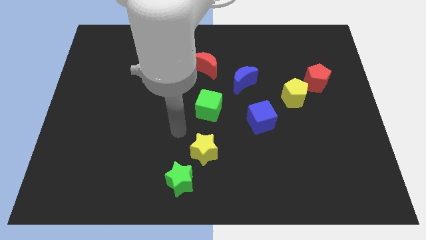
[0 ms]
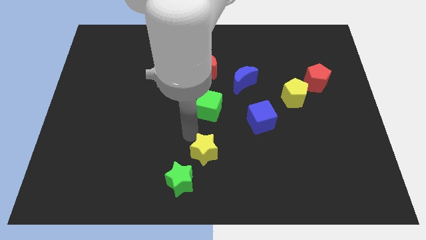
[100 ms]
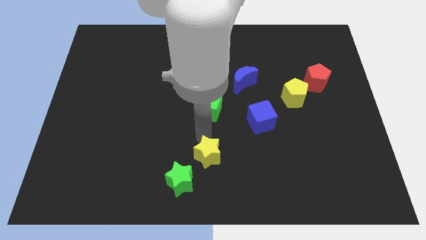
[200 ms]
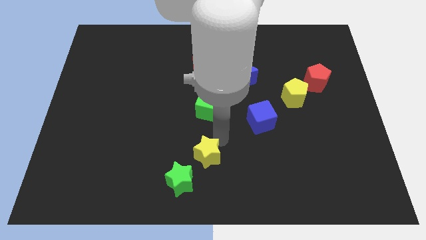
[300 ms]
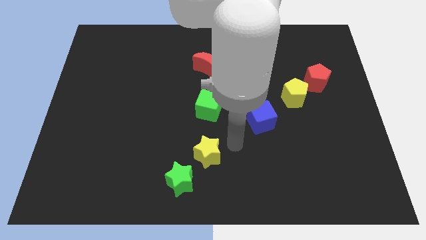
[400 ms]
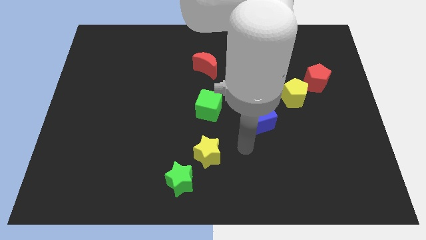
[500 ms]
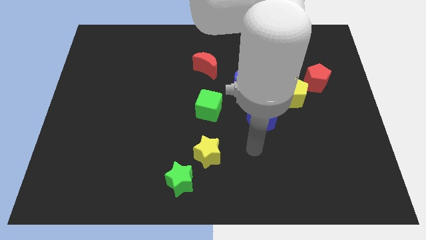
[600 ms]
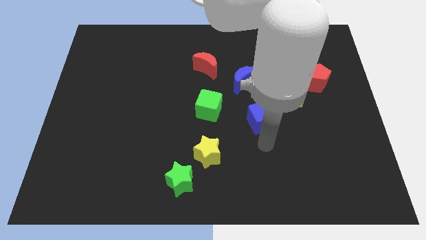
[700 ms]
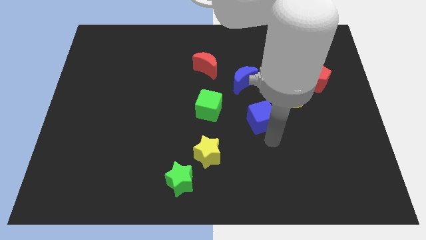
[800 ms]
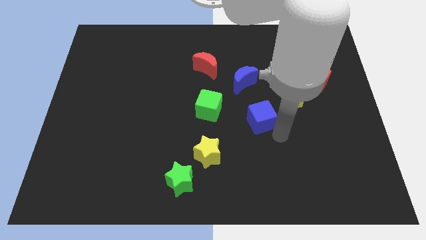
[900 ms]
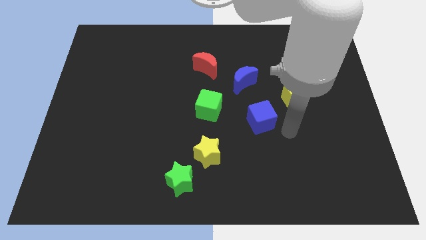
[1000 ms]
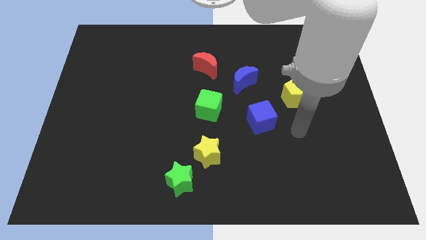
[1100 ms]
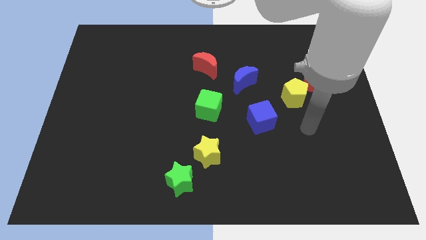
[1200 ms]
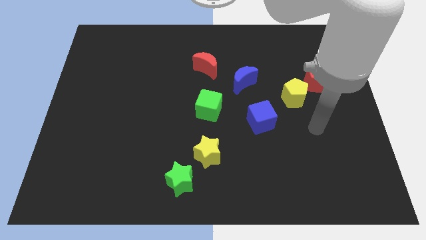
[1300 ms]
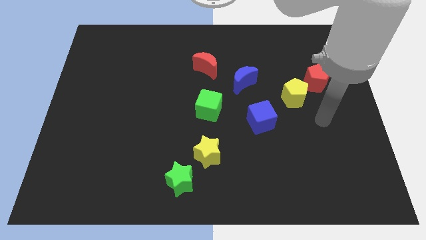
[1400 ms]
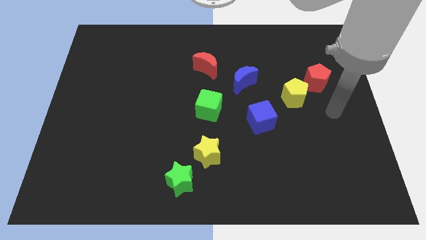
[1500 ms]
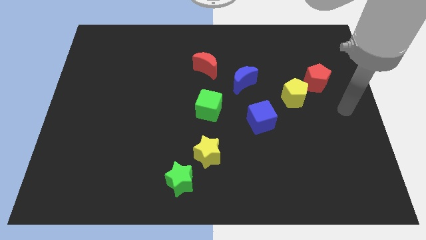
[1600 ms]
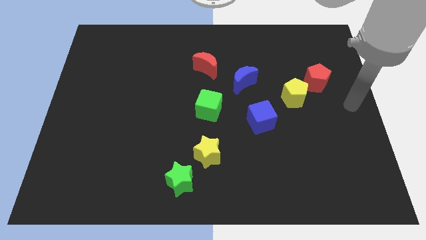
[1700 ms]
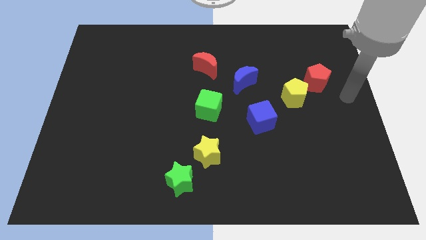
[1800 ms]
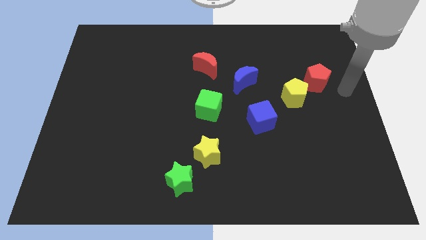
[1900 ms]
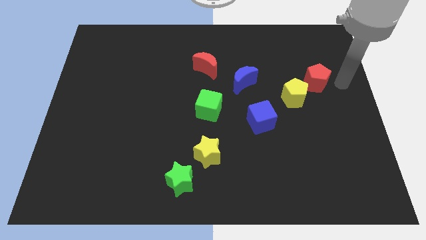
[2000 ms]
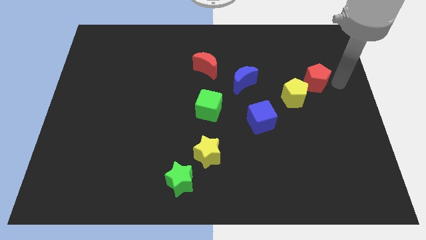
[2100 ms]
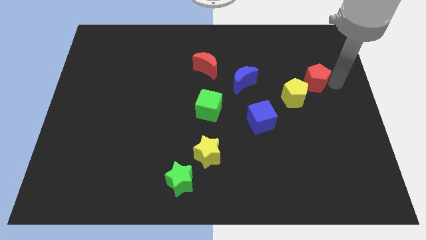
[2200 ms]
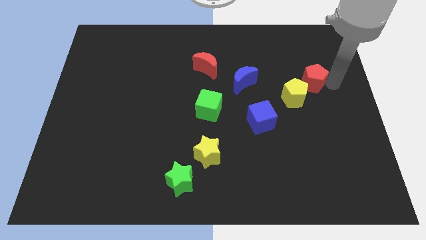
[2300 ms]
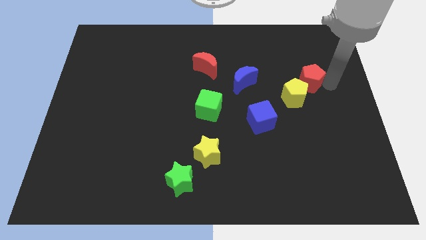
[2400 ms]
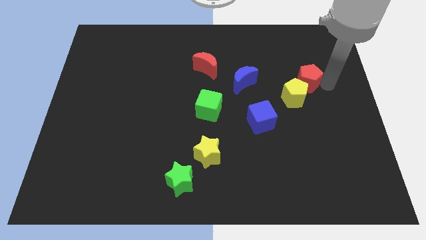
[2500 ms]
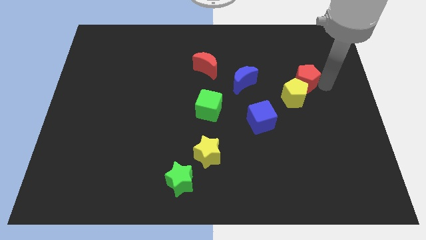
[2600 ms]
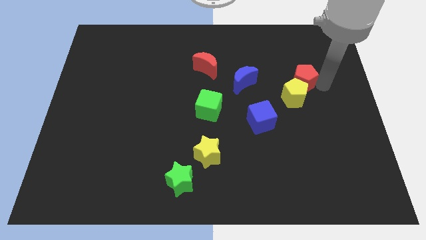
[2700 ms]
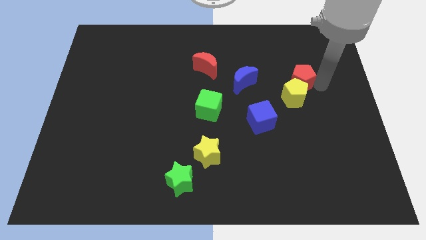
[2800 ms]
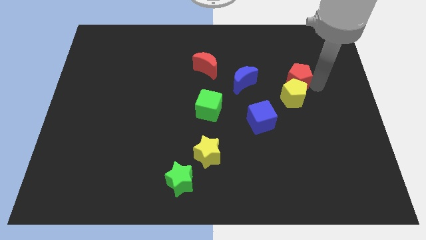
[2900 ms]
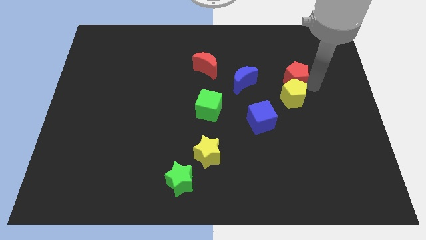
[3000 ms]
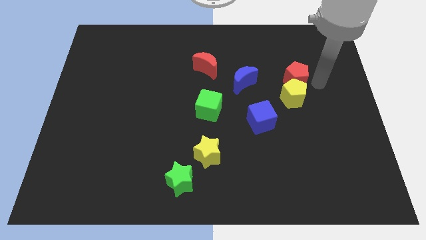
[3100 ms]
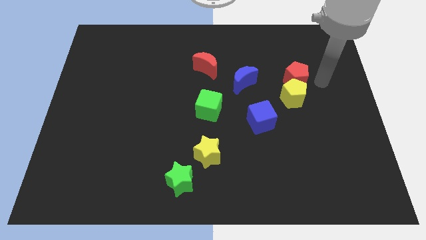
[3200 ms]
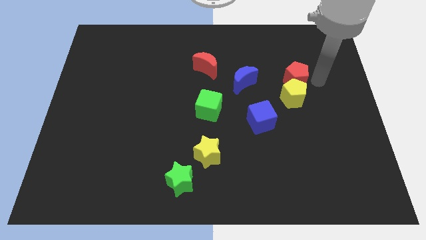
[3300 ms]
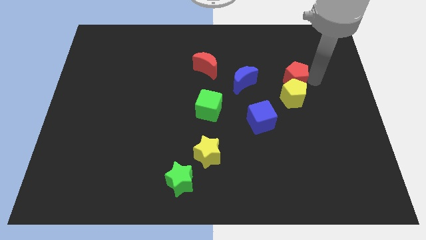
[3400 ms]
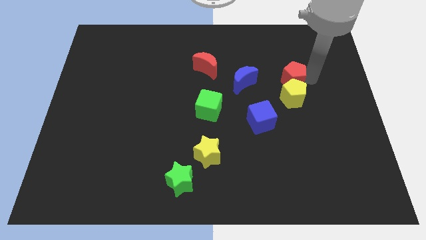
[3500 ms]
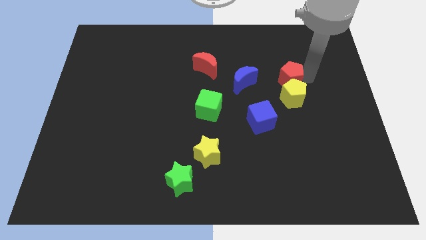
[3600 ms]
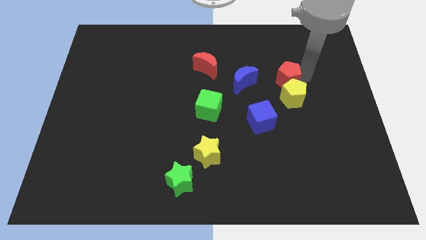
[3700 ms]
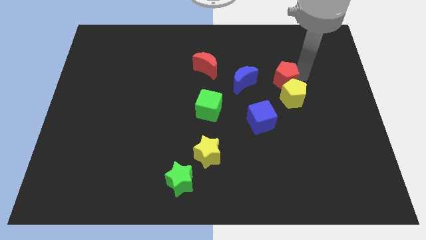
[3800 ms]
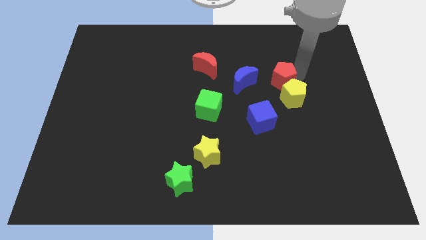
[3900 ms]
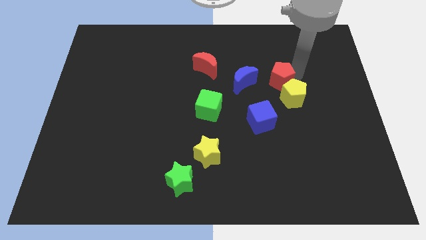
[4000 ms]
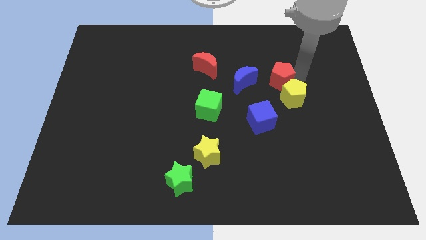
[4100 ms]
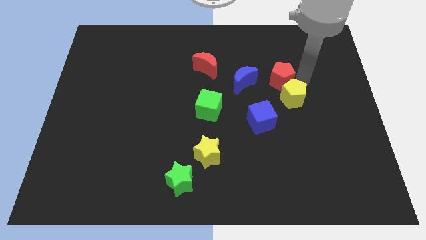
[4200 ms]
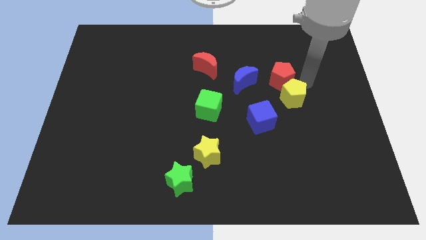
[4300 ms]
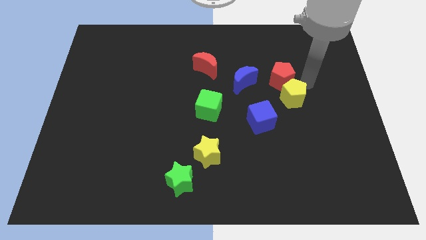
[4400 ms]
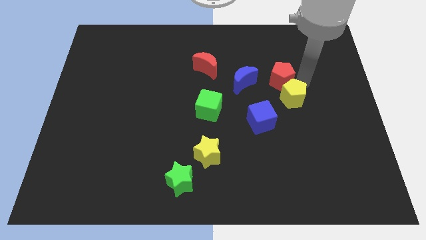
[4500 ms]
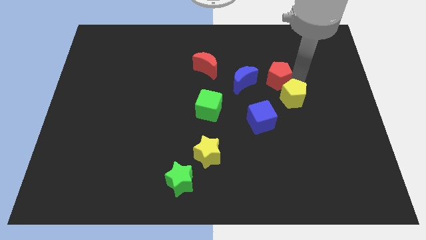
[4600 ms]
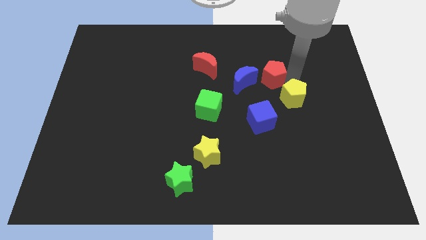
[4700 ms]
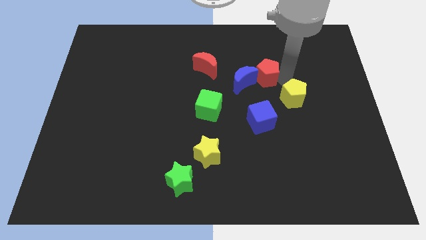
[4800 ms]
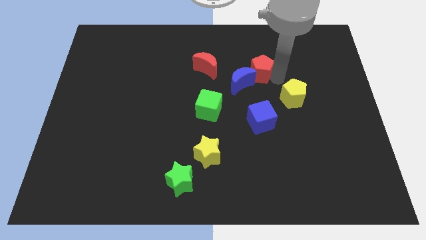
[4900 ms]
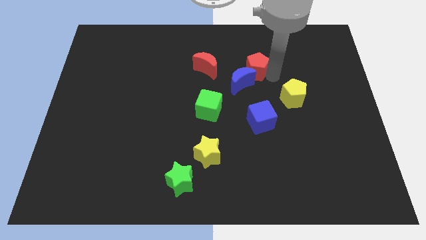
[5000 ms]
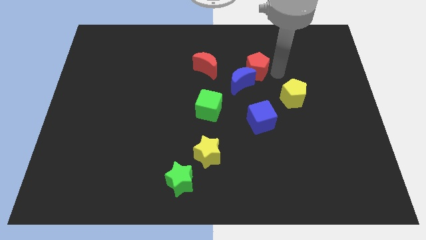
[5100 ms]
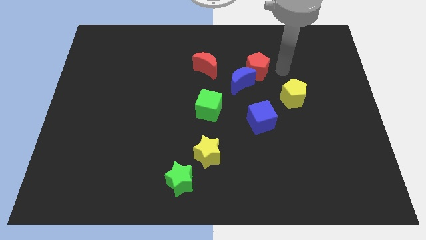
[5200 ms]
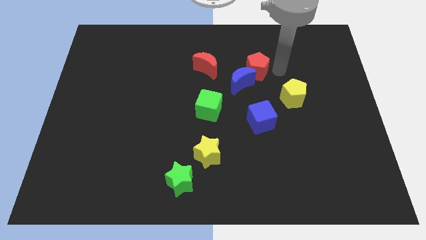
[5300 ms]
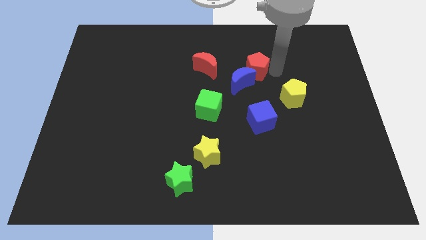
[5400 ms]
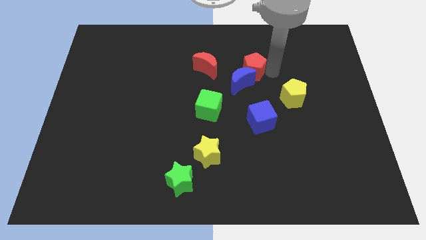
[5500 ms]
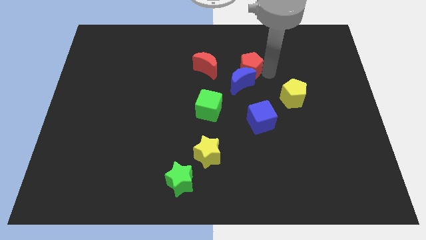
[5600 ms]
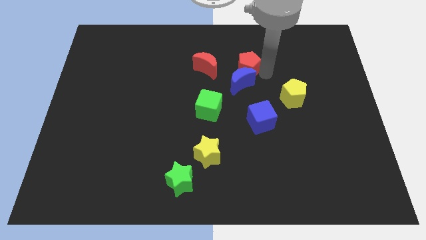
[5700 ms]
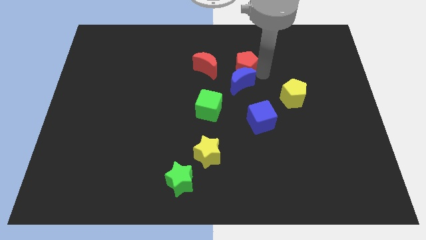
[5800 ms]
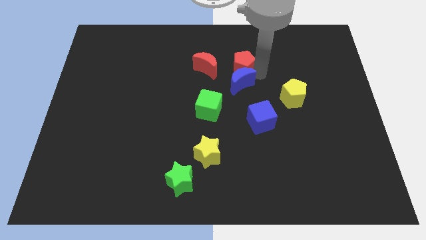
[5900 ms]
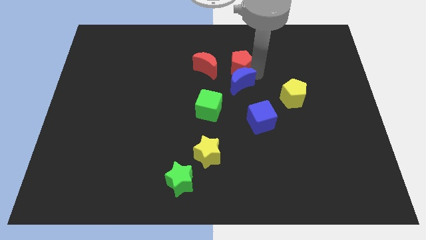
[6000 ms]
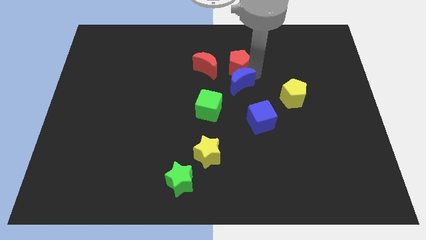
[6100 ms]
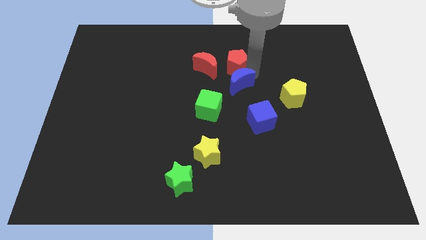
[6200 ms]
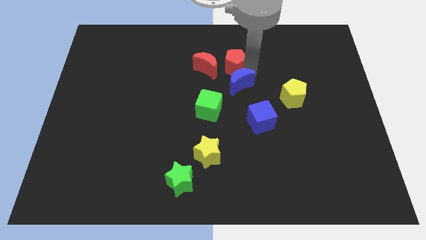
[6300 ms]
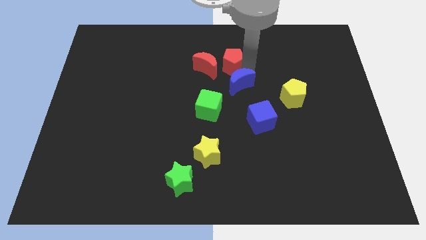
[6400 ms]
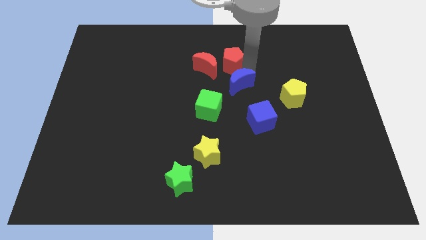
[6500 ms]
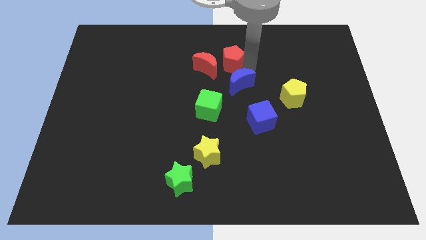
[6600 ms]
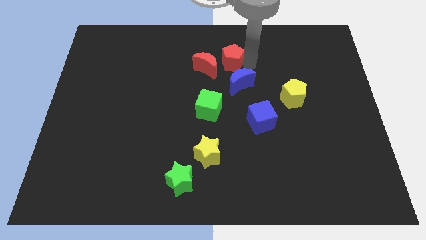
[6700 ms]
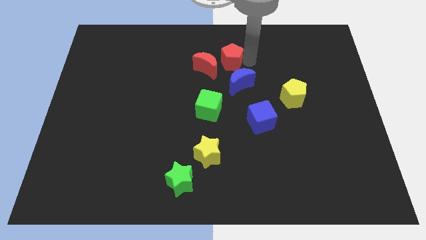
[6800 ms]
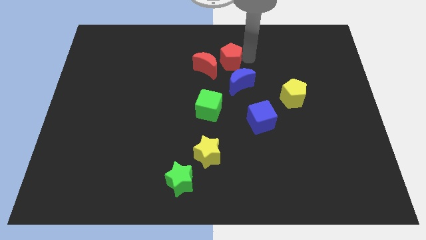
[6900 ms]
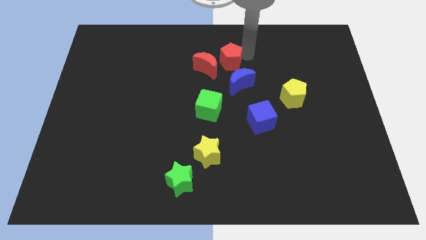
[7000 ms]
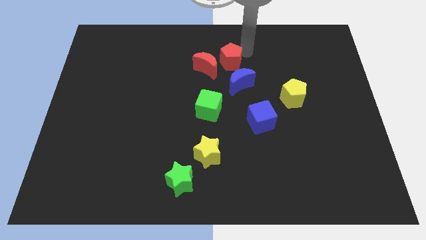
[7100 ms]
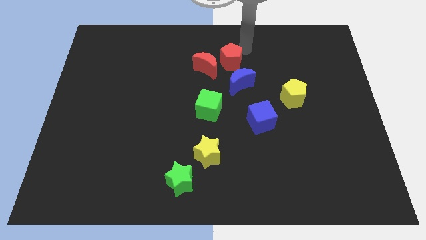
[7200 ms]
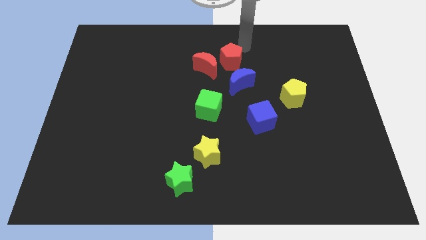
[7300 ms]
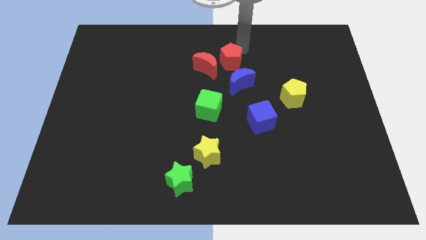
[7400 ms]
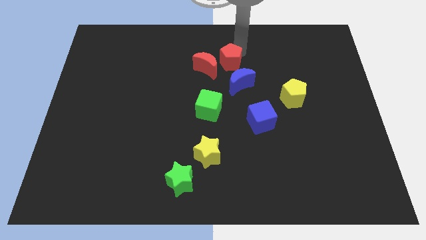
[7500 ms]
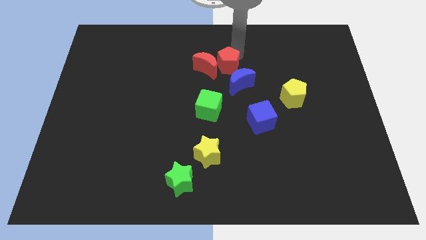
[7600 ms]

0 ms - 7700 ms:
slide the red pentagon to the red moon
